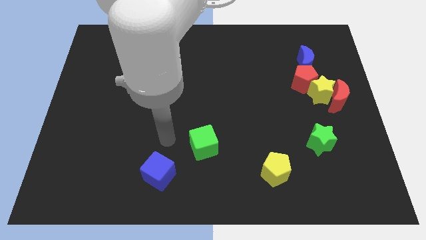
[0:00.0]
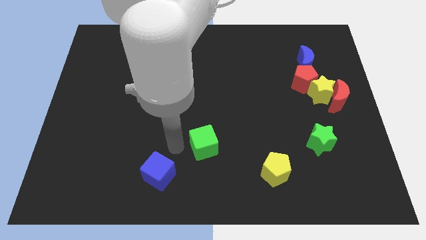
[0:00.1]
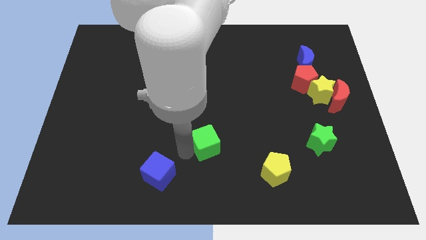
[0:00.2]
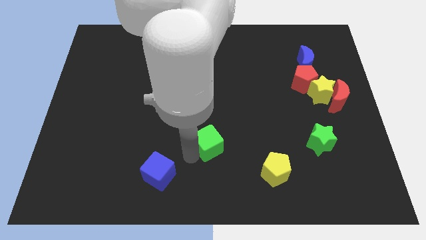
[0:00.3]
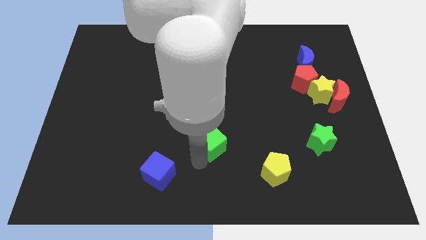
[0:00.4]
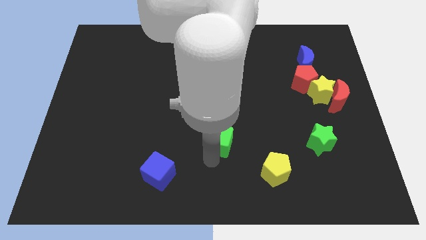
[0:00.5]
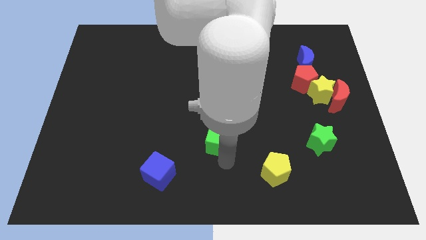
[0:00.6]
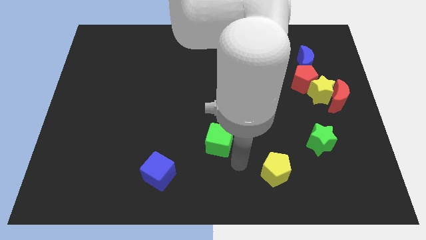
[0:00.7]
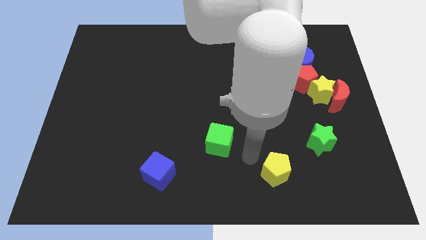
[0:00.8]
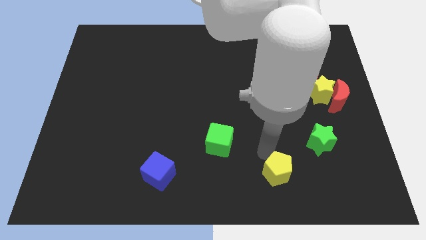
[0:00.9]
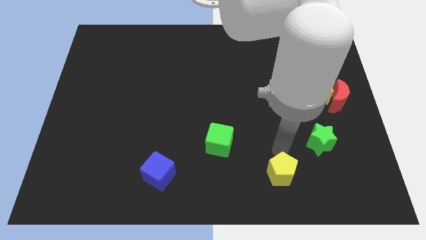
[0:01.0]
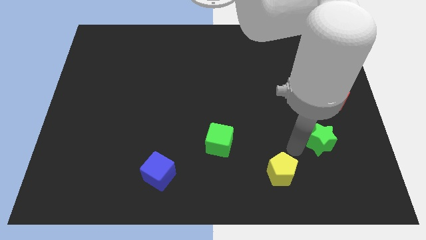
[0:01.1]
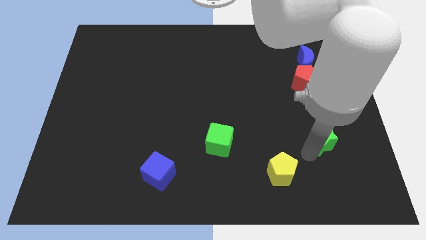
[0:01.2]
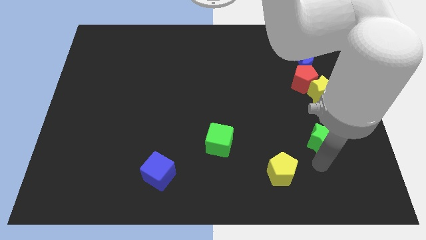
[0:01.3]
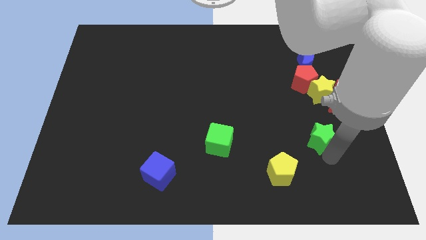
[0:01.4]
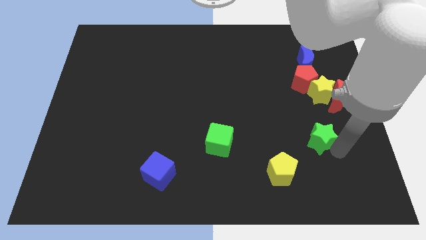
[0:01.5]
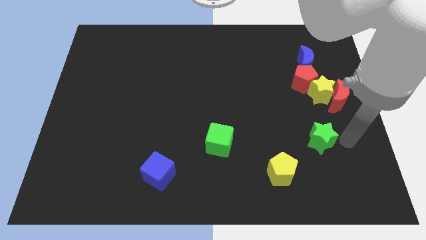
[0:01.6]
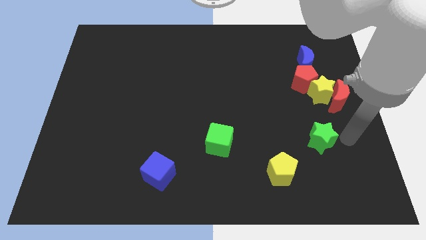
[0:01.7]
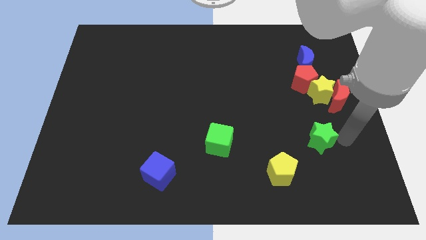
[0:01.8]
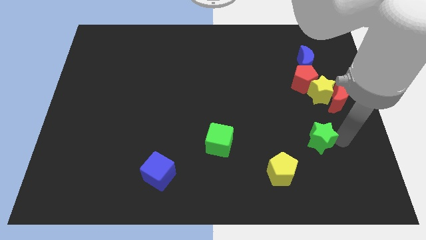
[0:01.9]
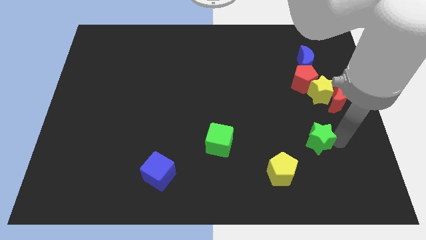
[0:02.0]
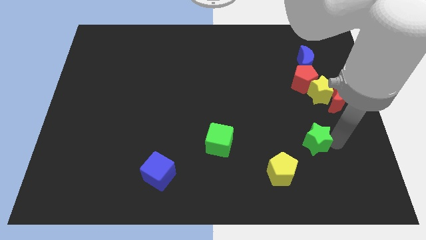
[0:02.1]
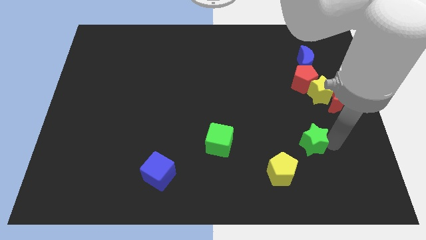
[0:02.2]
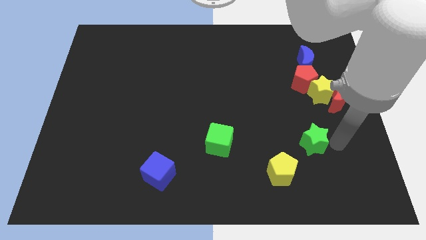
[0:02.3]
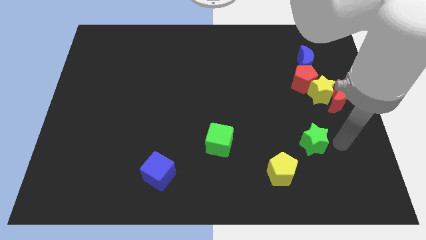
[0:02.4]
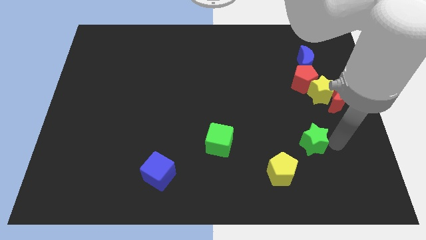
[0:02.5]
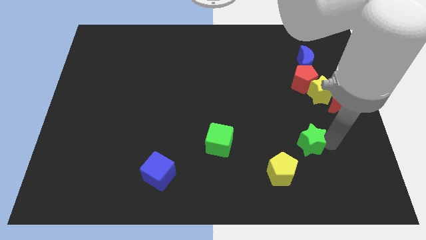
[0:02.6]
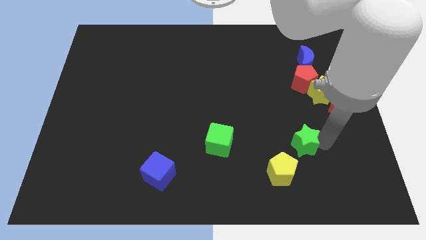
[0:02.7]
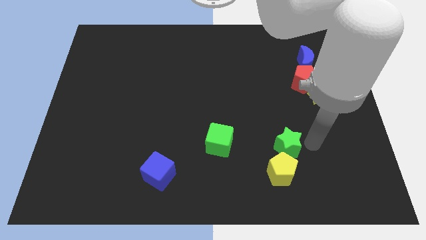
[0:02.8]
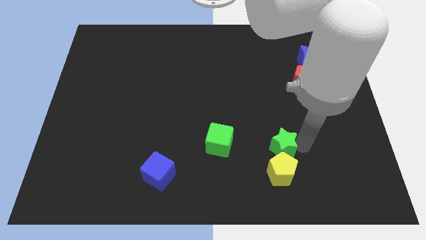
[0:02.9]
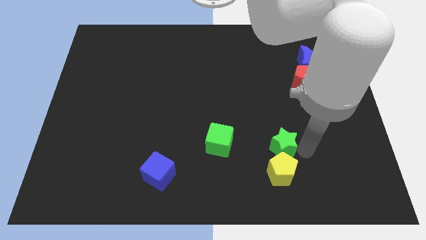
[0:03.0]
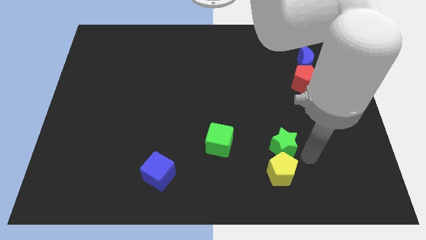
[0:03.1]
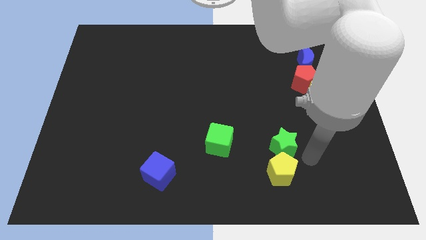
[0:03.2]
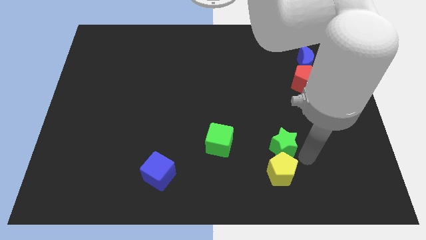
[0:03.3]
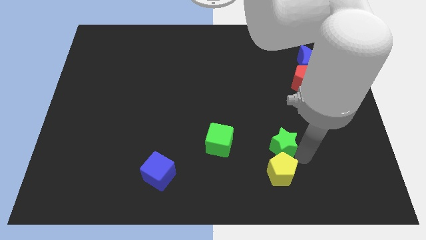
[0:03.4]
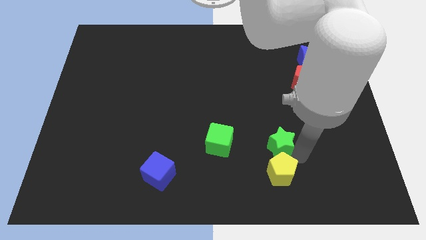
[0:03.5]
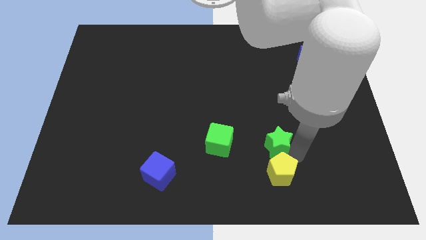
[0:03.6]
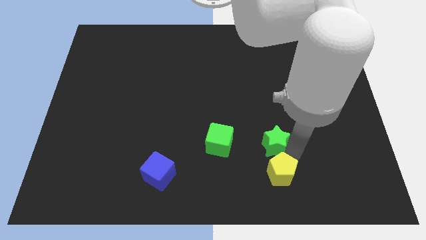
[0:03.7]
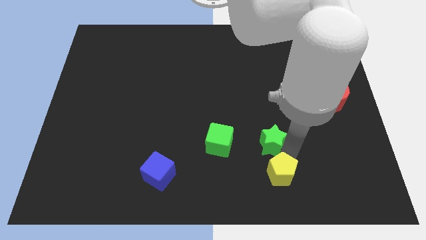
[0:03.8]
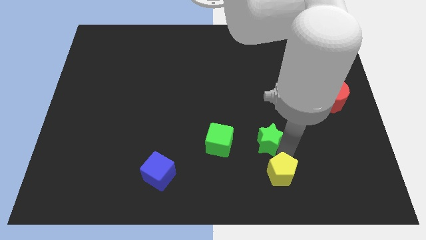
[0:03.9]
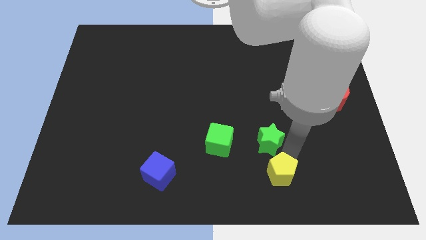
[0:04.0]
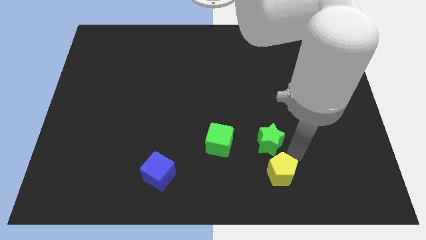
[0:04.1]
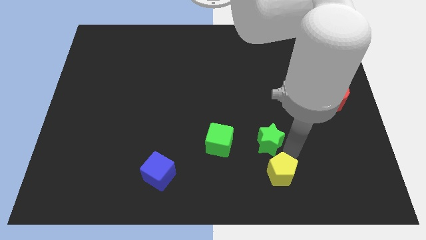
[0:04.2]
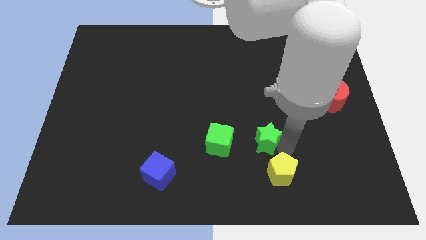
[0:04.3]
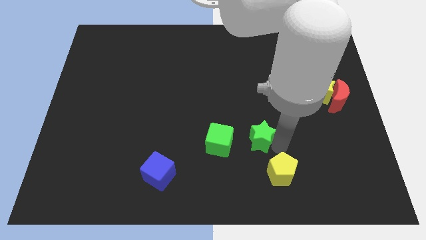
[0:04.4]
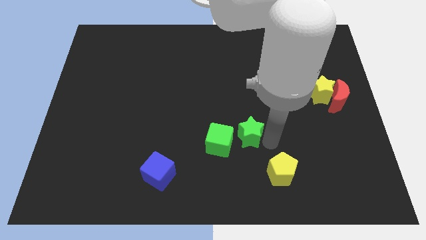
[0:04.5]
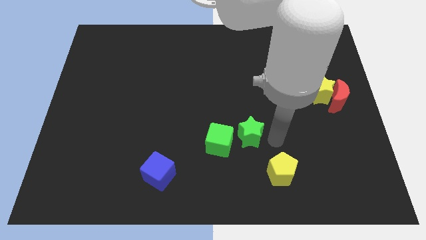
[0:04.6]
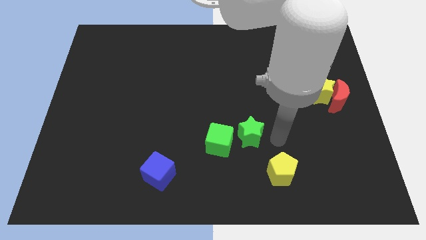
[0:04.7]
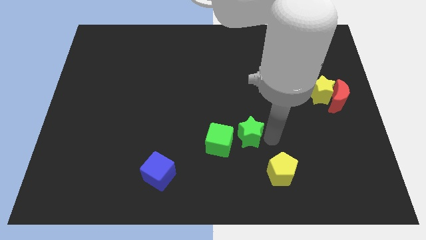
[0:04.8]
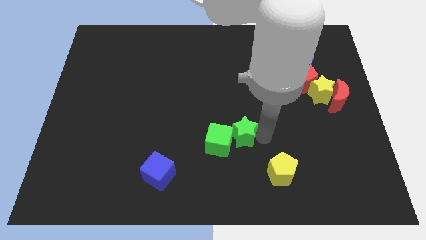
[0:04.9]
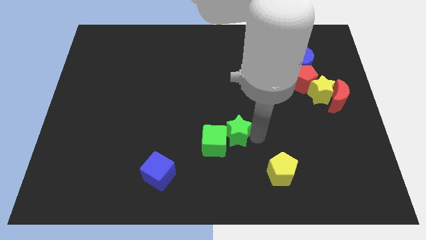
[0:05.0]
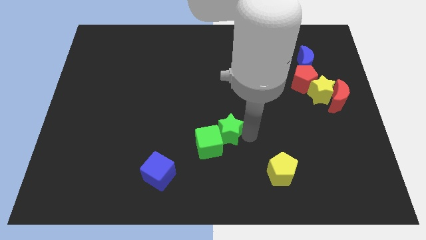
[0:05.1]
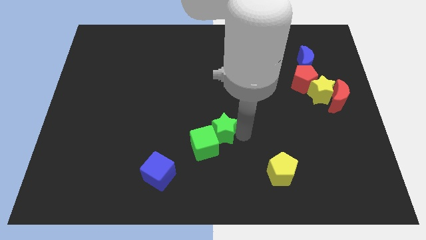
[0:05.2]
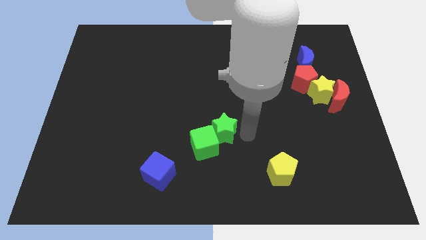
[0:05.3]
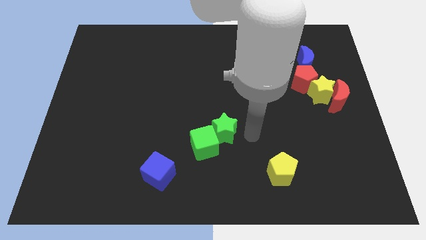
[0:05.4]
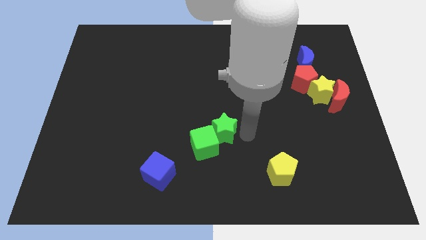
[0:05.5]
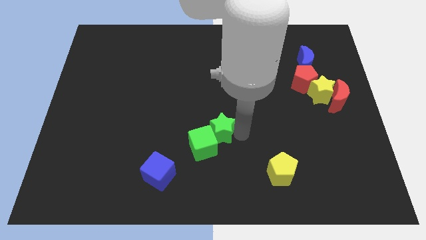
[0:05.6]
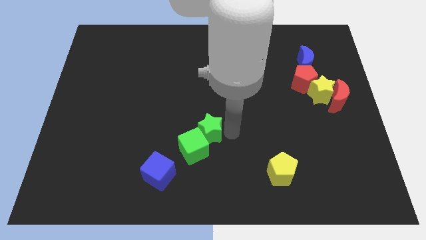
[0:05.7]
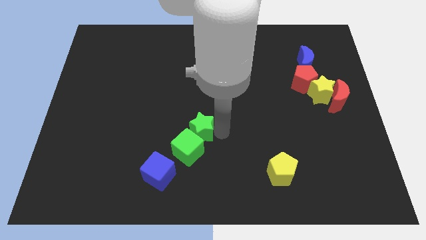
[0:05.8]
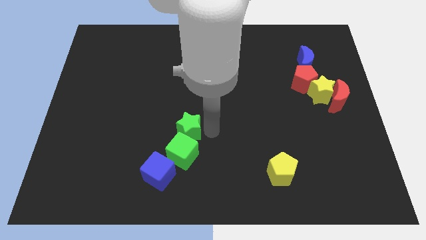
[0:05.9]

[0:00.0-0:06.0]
slide the green star to the top left of the green cube

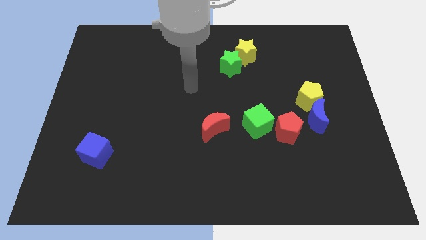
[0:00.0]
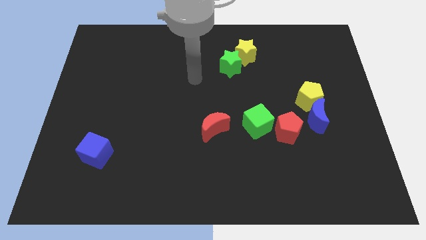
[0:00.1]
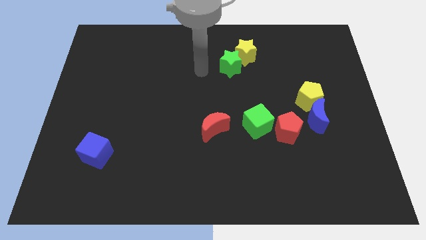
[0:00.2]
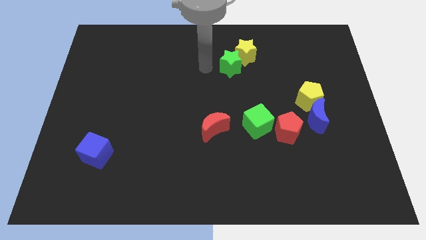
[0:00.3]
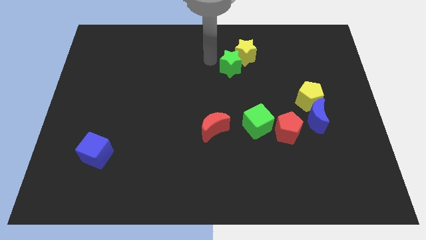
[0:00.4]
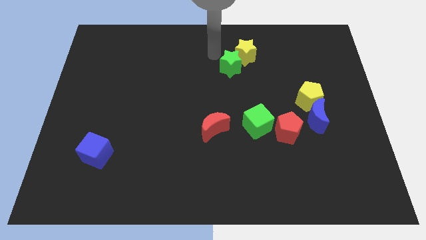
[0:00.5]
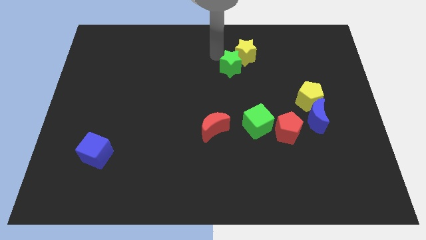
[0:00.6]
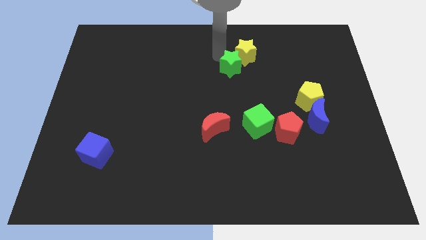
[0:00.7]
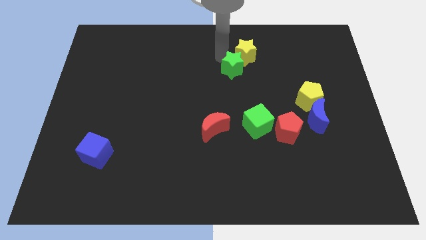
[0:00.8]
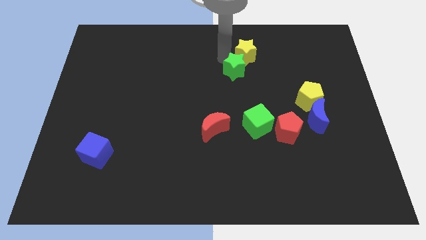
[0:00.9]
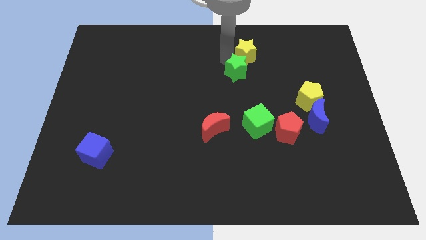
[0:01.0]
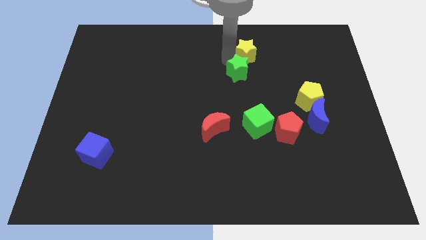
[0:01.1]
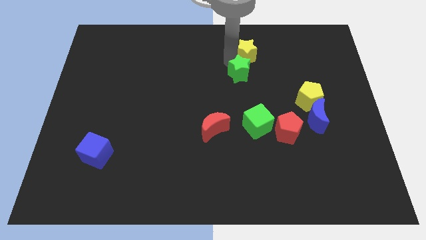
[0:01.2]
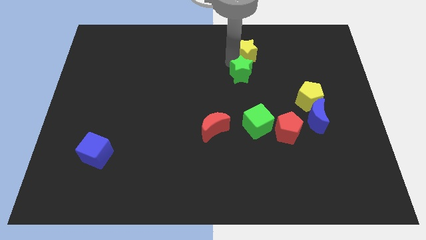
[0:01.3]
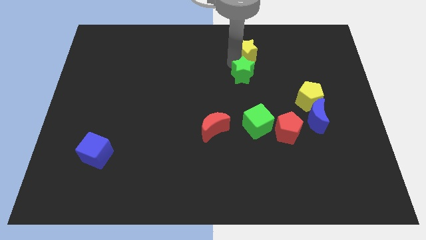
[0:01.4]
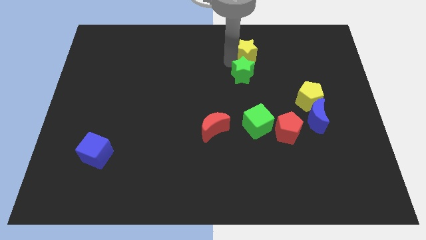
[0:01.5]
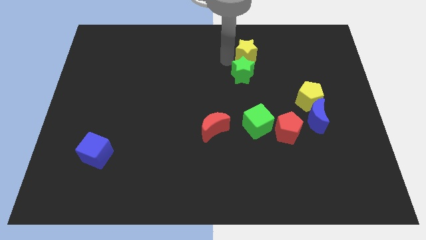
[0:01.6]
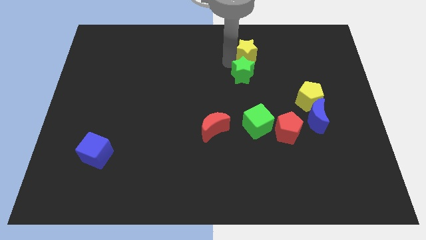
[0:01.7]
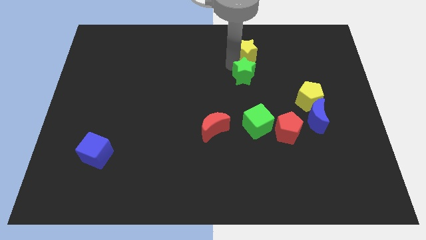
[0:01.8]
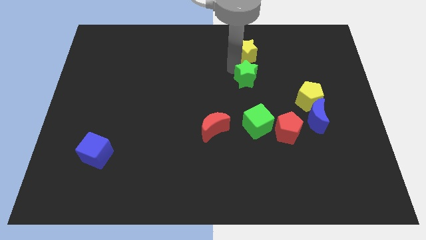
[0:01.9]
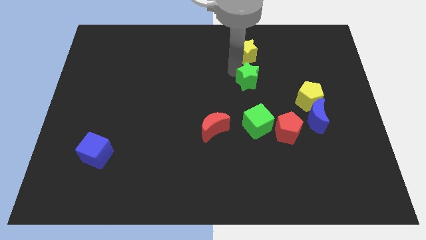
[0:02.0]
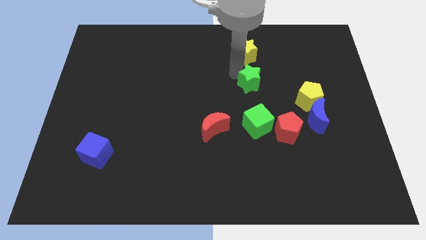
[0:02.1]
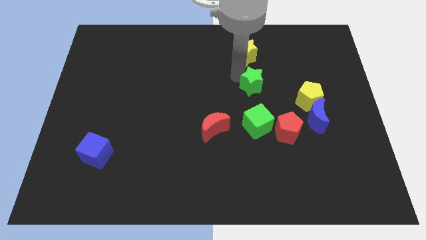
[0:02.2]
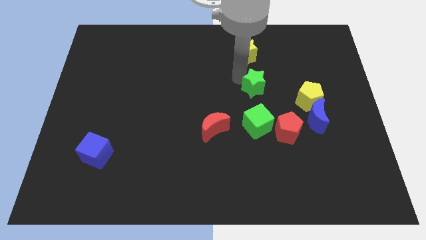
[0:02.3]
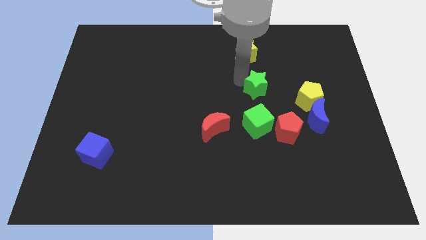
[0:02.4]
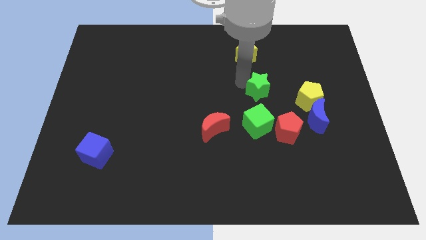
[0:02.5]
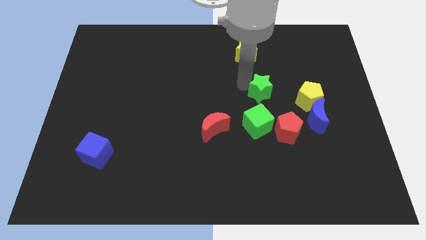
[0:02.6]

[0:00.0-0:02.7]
put the green star above the red pentagon
